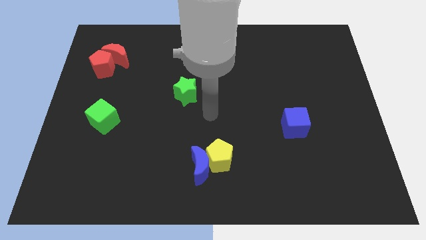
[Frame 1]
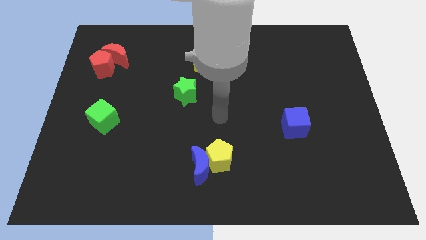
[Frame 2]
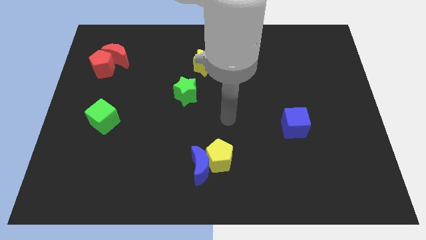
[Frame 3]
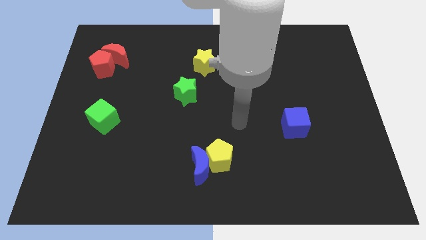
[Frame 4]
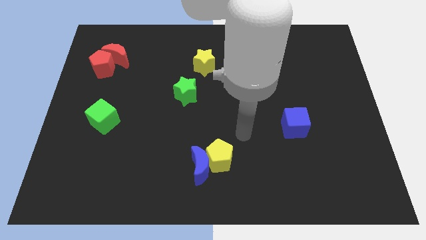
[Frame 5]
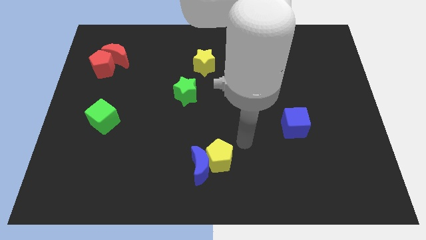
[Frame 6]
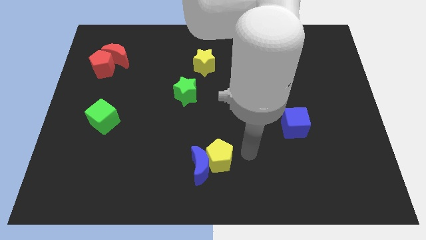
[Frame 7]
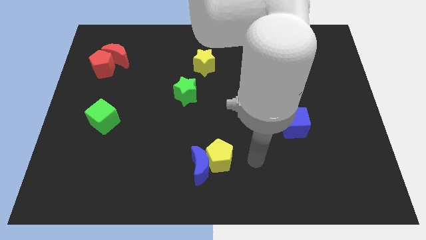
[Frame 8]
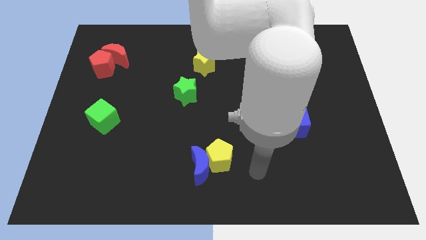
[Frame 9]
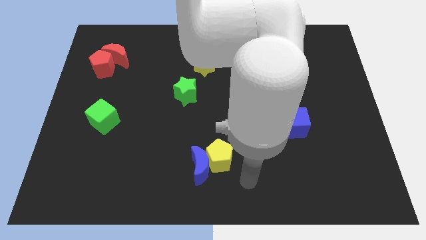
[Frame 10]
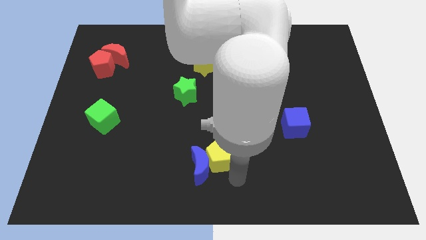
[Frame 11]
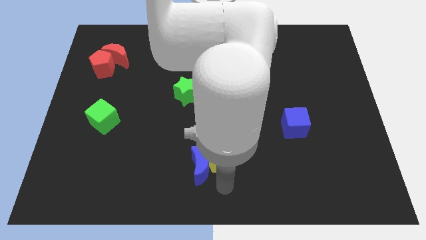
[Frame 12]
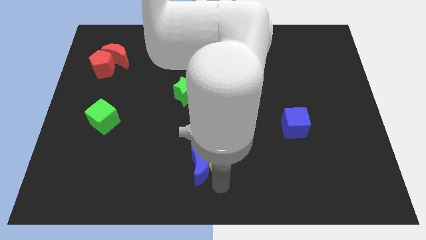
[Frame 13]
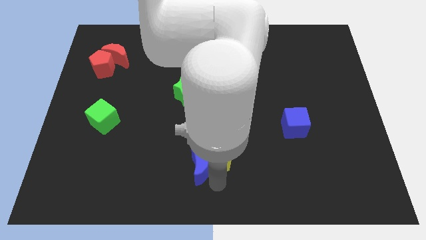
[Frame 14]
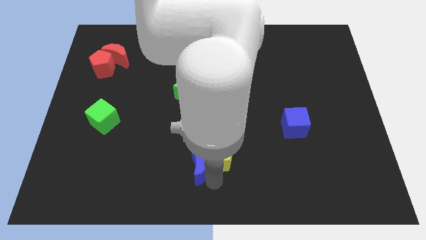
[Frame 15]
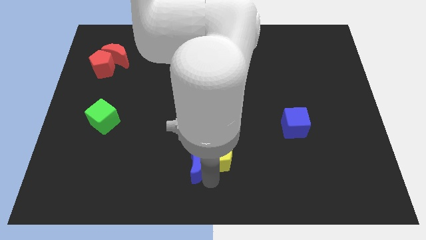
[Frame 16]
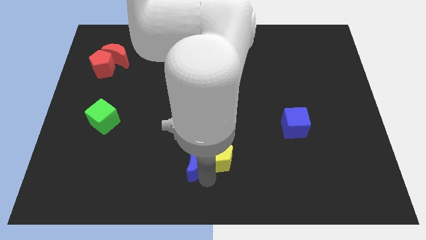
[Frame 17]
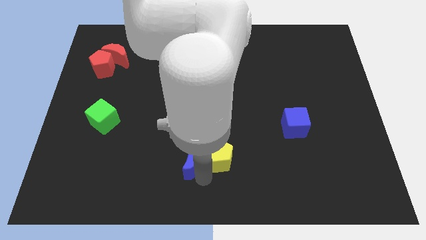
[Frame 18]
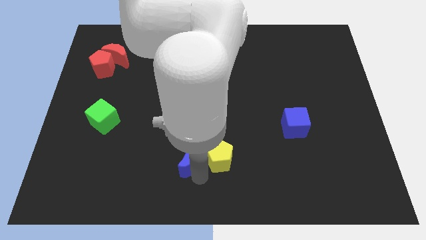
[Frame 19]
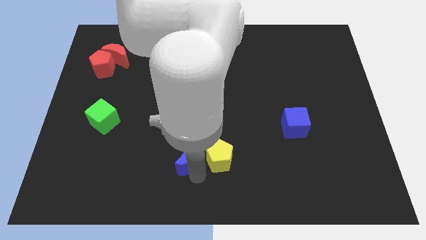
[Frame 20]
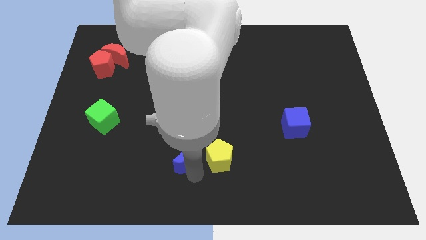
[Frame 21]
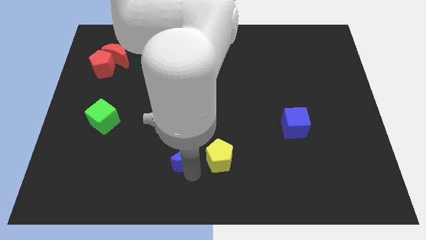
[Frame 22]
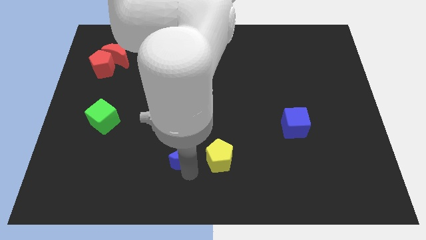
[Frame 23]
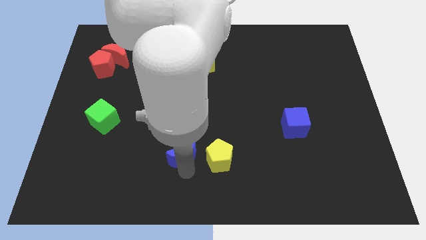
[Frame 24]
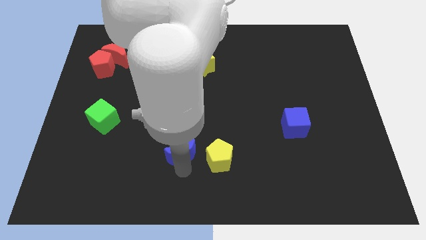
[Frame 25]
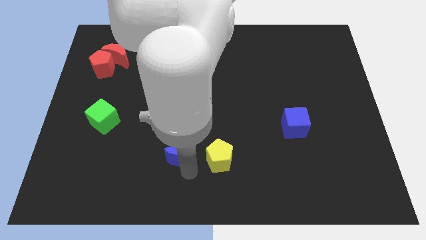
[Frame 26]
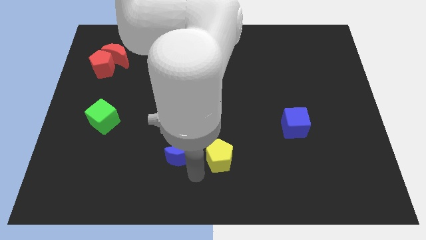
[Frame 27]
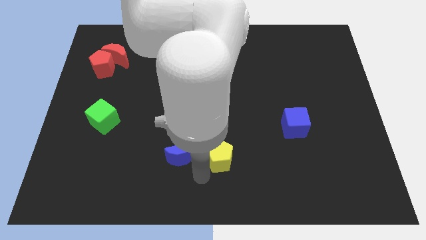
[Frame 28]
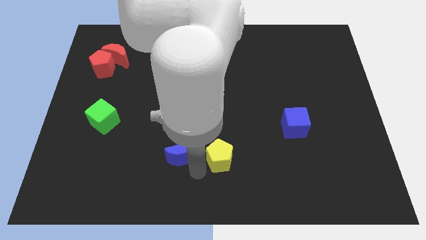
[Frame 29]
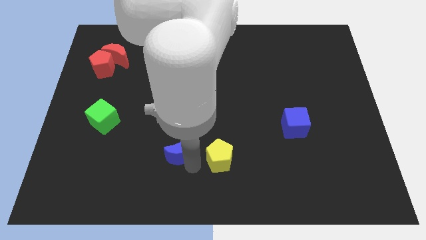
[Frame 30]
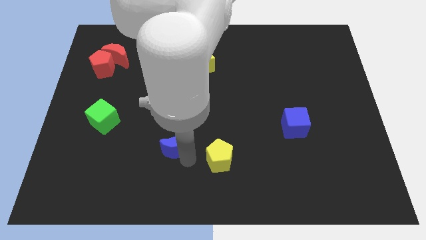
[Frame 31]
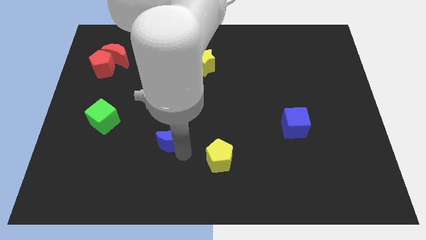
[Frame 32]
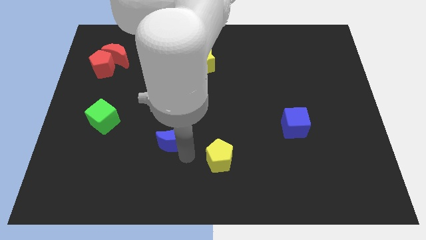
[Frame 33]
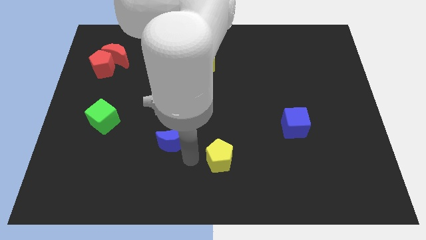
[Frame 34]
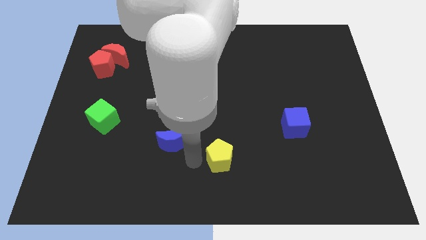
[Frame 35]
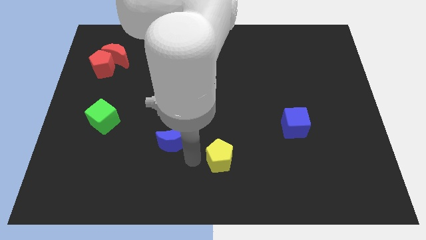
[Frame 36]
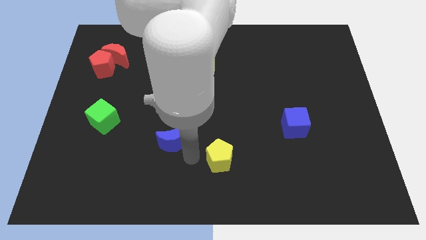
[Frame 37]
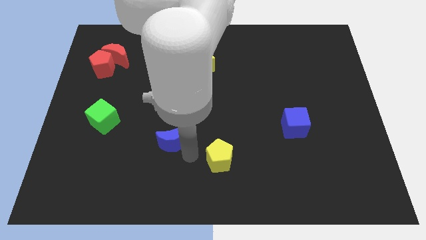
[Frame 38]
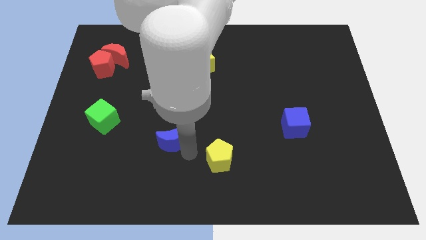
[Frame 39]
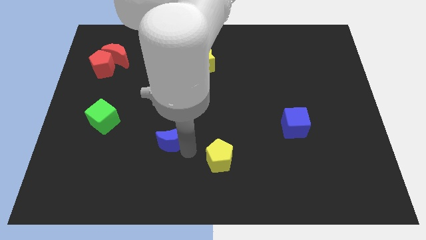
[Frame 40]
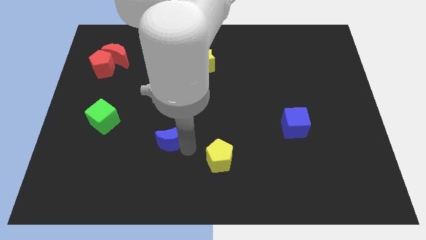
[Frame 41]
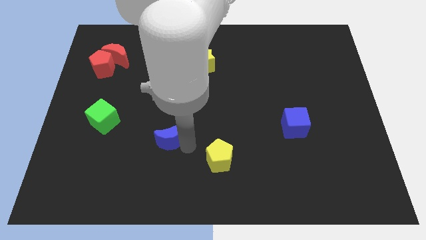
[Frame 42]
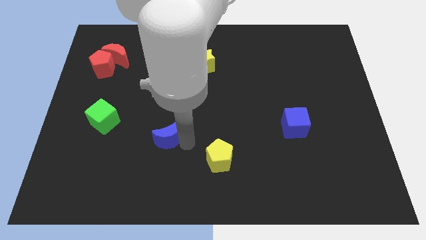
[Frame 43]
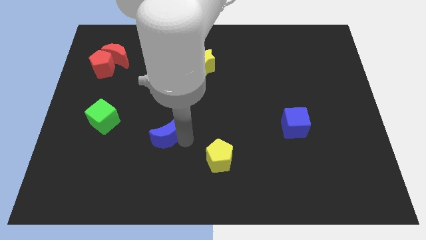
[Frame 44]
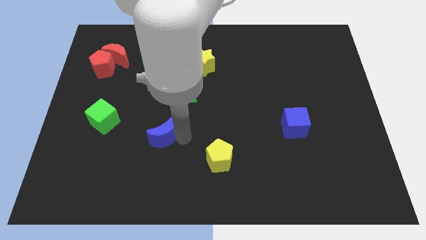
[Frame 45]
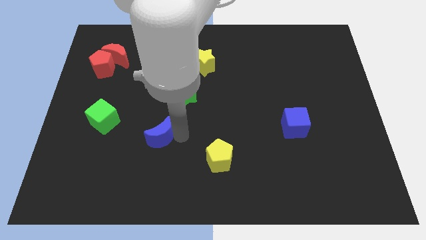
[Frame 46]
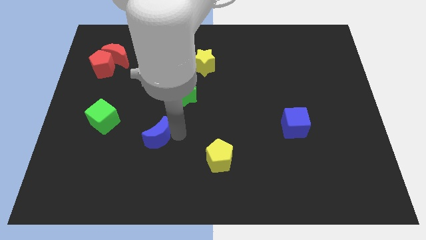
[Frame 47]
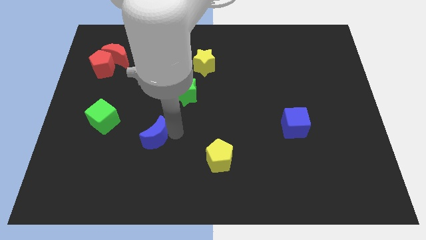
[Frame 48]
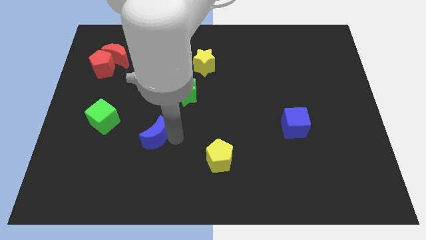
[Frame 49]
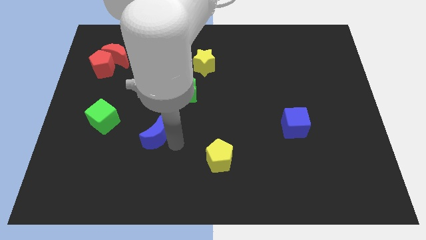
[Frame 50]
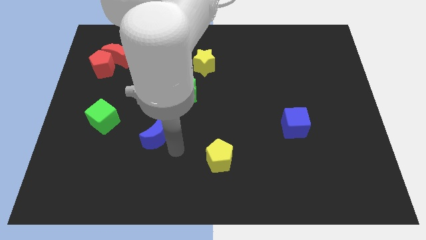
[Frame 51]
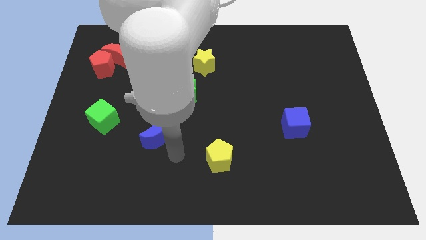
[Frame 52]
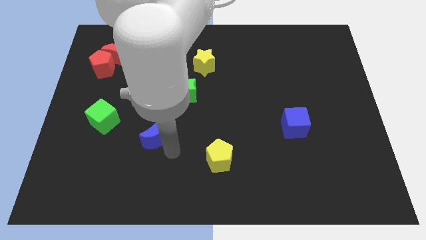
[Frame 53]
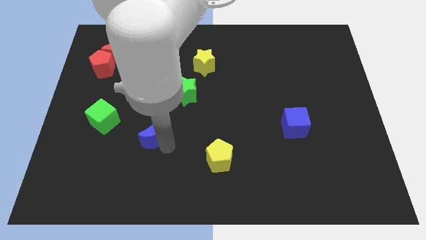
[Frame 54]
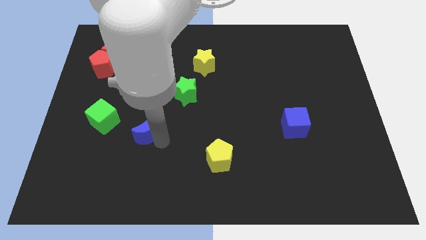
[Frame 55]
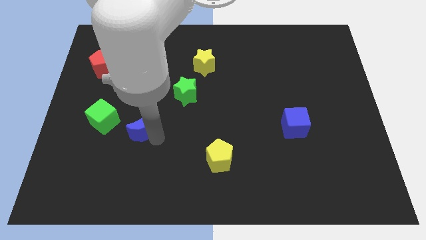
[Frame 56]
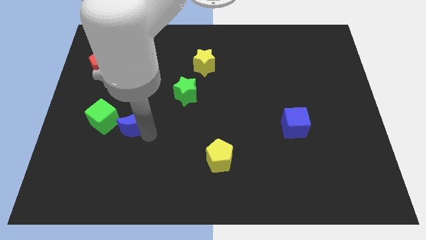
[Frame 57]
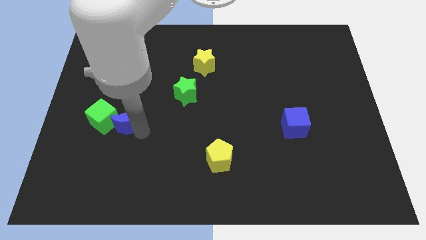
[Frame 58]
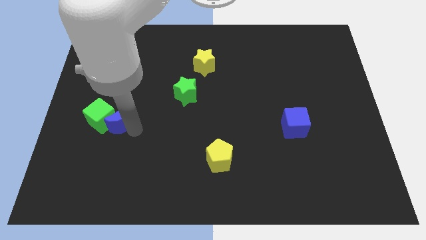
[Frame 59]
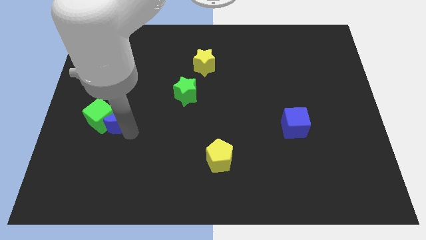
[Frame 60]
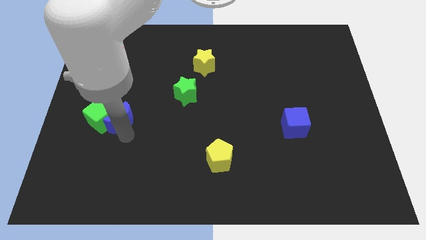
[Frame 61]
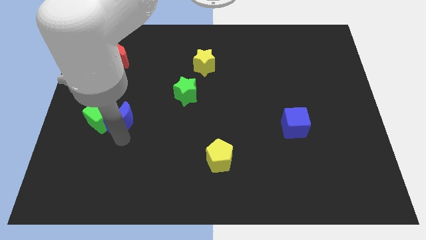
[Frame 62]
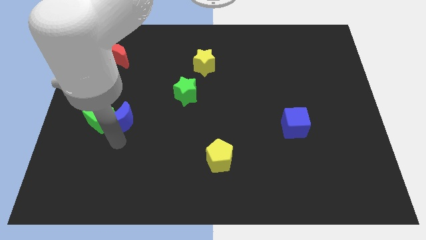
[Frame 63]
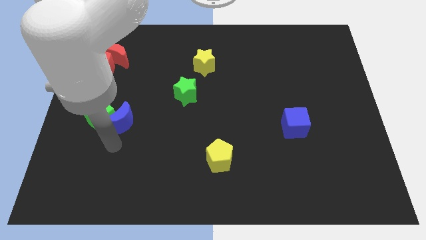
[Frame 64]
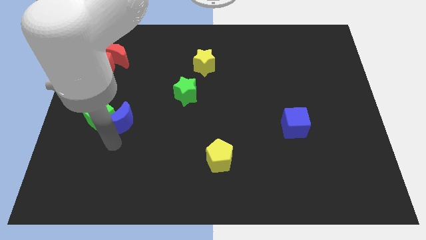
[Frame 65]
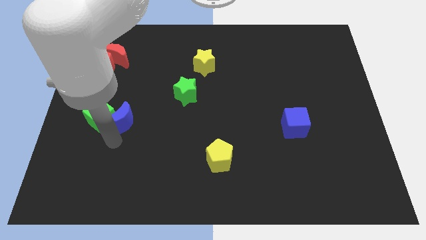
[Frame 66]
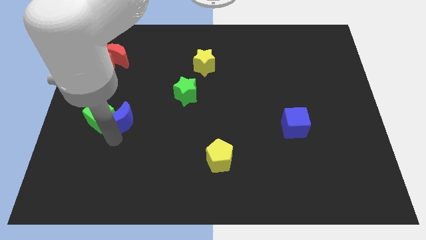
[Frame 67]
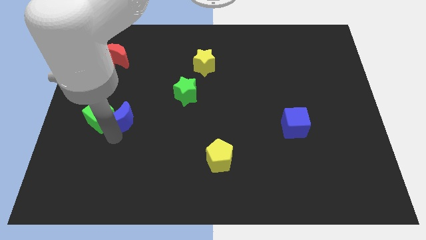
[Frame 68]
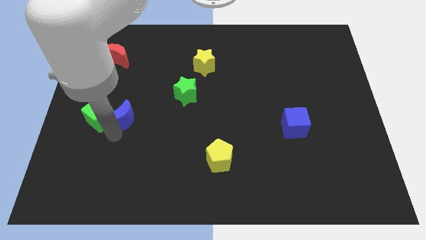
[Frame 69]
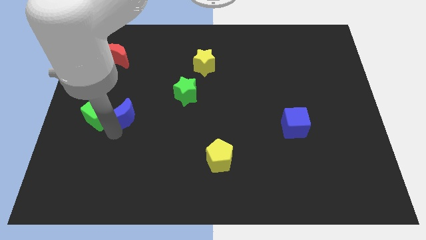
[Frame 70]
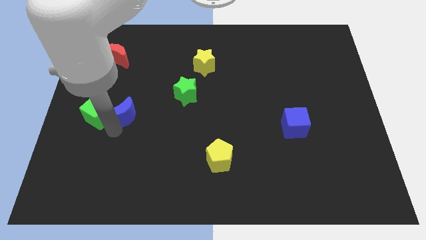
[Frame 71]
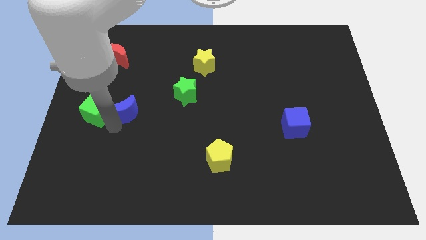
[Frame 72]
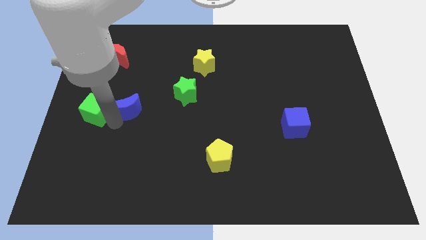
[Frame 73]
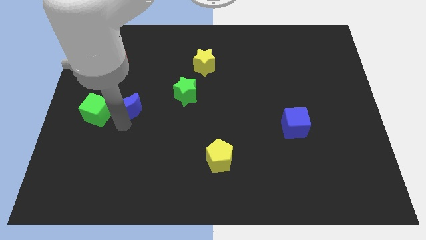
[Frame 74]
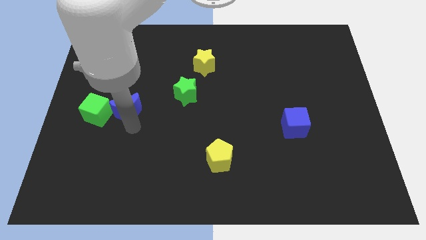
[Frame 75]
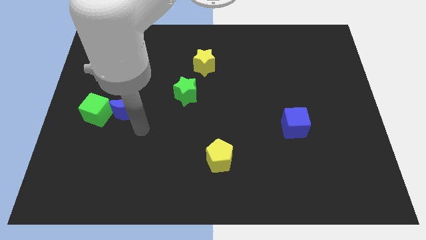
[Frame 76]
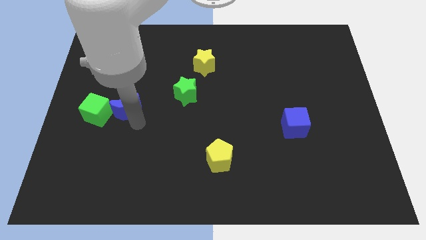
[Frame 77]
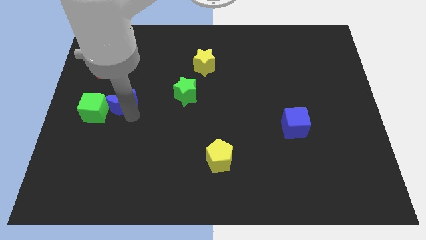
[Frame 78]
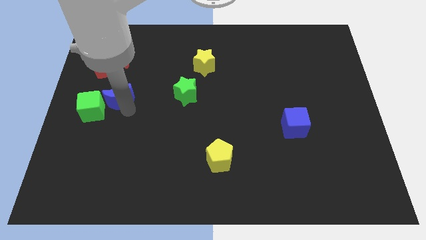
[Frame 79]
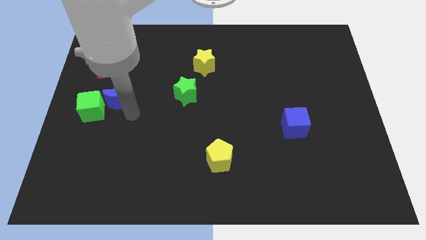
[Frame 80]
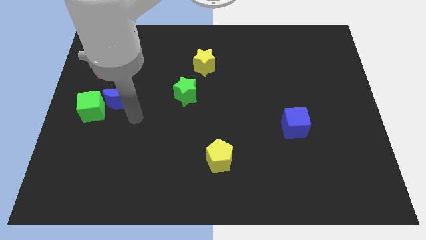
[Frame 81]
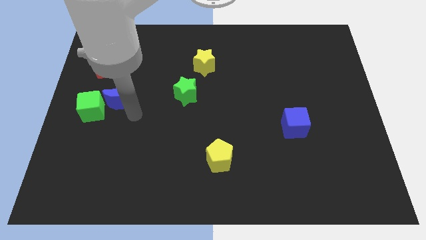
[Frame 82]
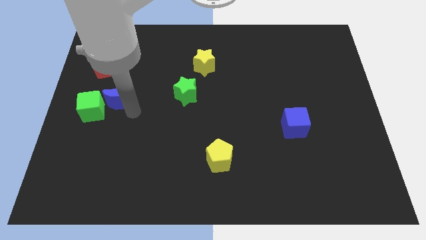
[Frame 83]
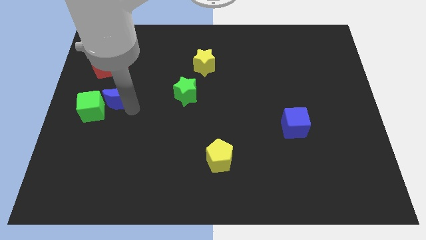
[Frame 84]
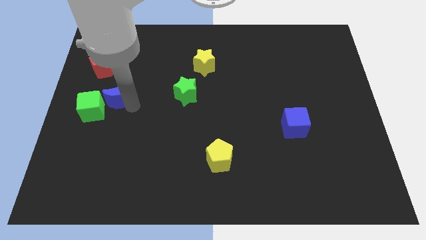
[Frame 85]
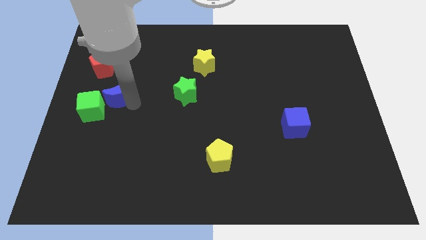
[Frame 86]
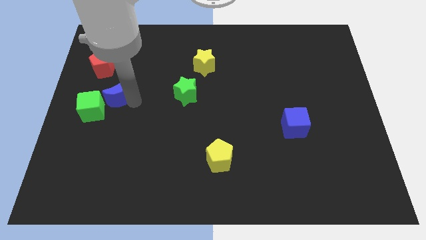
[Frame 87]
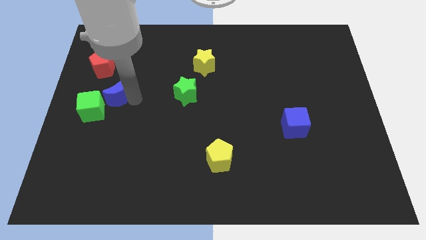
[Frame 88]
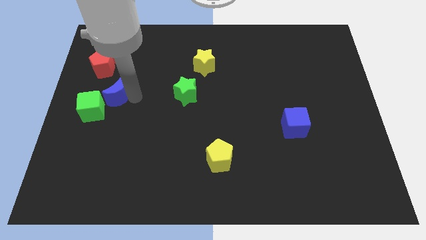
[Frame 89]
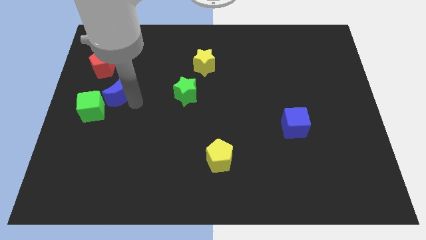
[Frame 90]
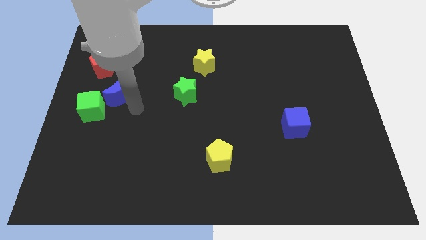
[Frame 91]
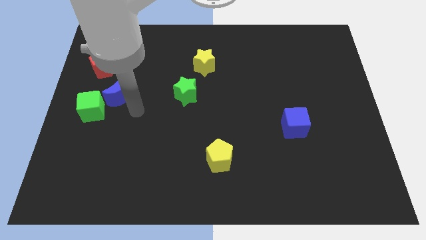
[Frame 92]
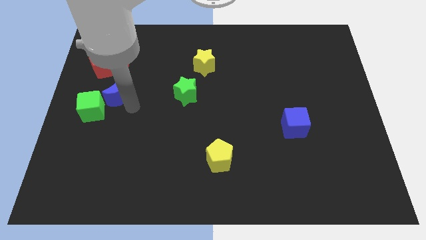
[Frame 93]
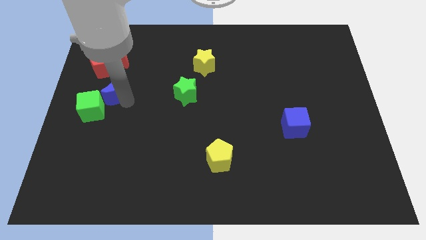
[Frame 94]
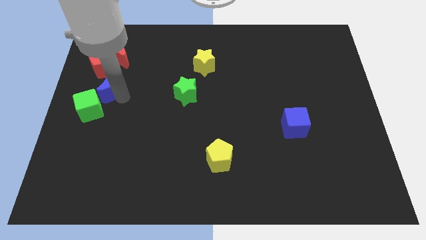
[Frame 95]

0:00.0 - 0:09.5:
move the blue moon to the top of the green cube
